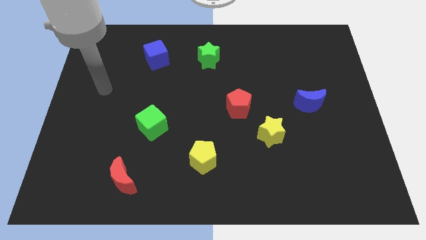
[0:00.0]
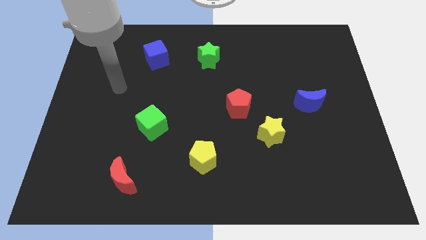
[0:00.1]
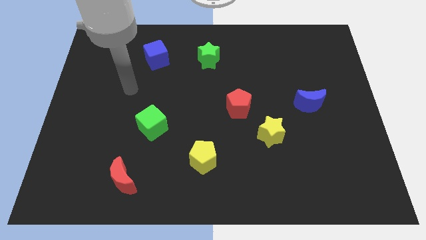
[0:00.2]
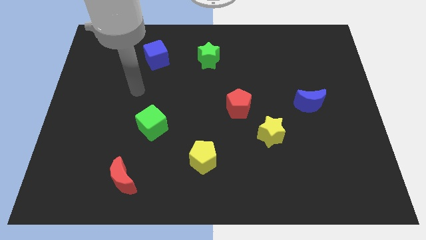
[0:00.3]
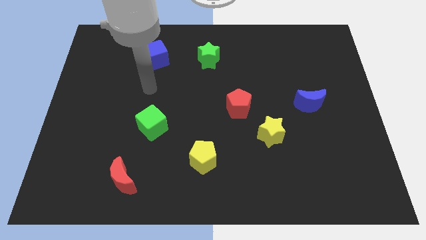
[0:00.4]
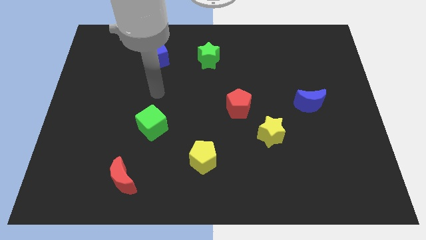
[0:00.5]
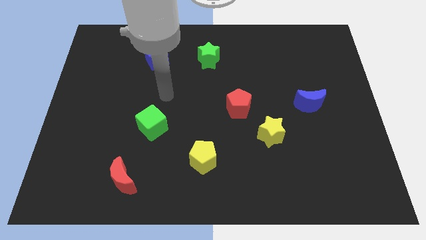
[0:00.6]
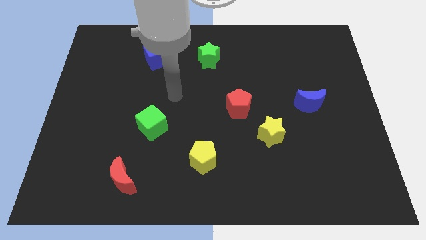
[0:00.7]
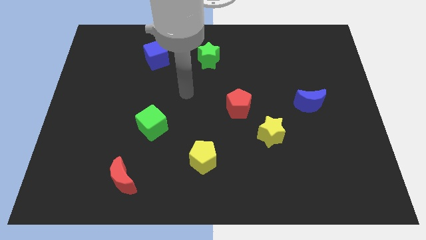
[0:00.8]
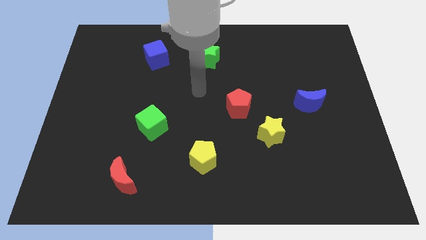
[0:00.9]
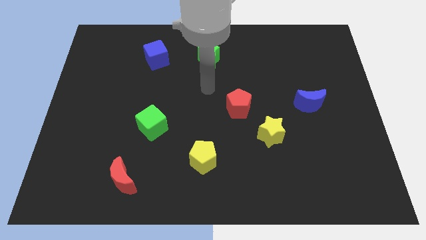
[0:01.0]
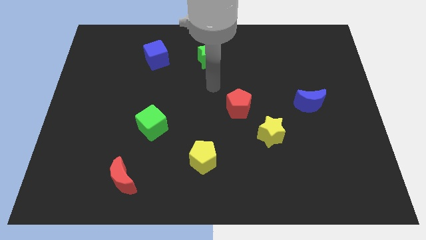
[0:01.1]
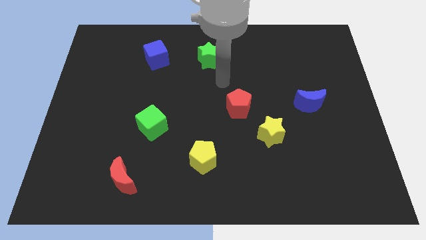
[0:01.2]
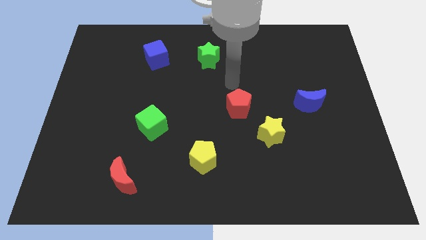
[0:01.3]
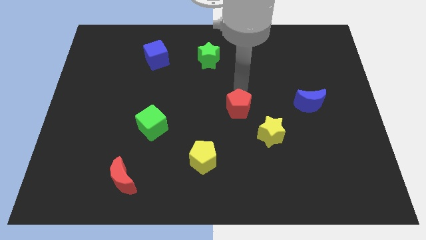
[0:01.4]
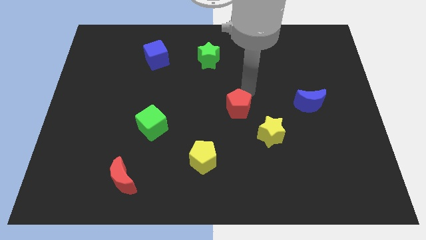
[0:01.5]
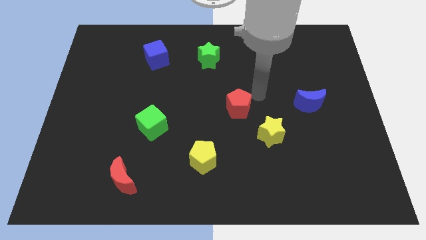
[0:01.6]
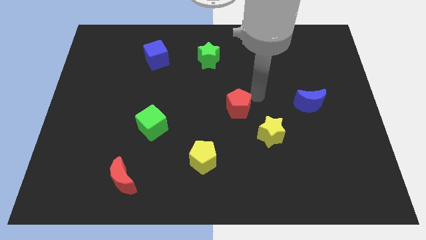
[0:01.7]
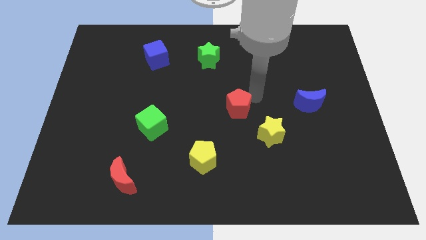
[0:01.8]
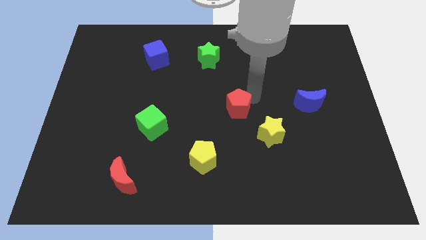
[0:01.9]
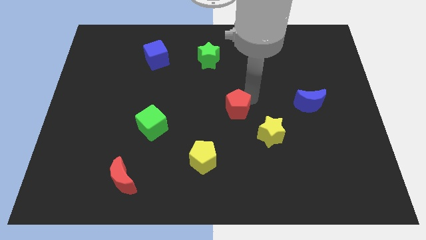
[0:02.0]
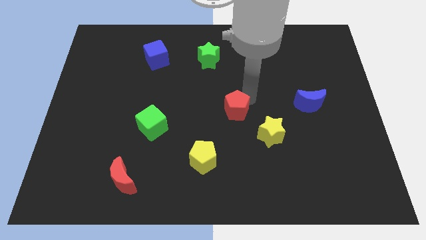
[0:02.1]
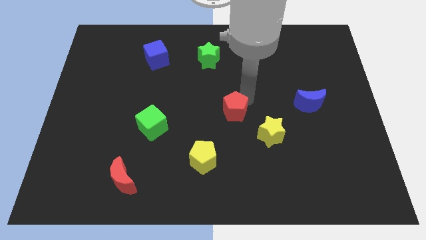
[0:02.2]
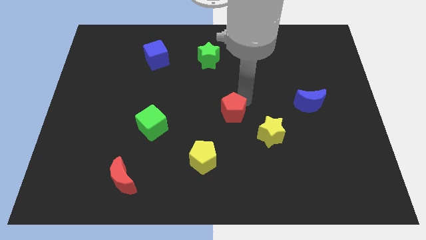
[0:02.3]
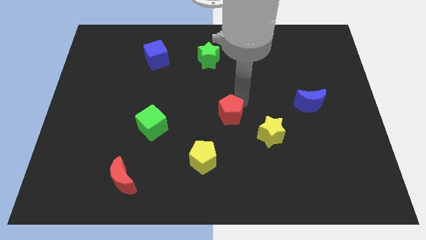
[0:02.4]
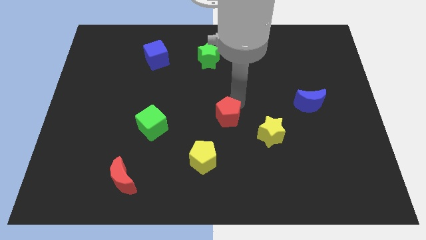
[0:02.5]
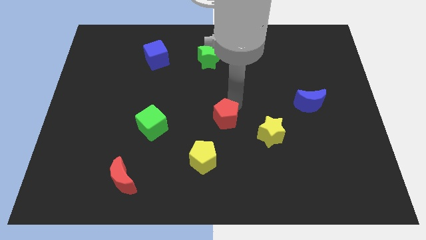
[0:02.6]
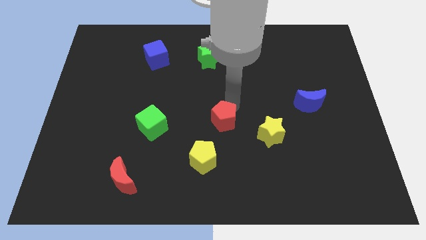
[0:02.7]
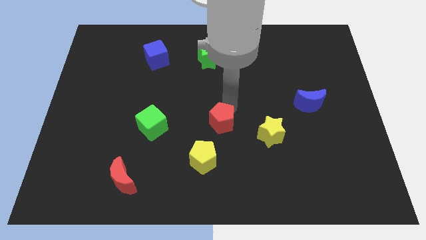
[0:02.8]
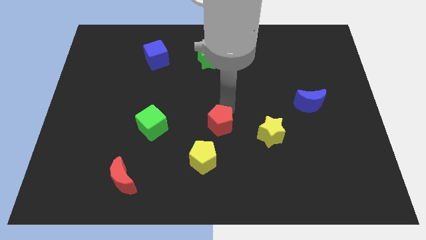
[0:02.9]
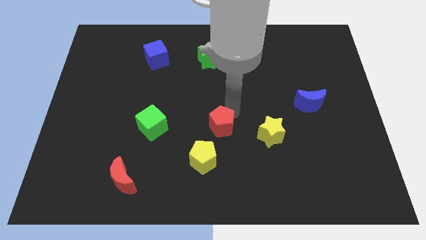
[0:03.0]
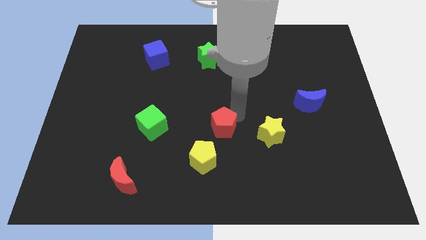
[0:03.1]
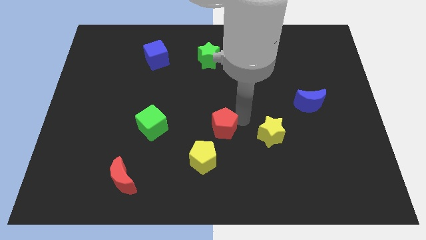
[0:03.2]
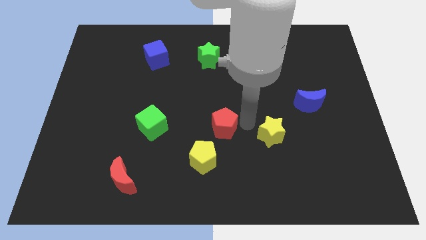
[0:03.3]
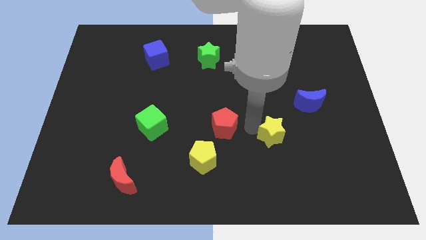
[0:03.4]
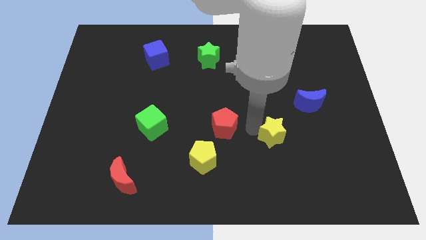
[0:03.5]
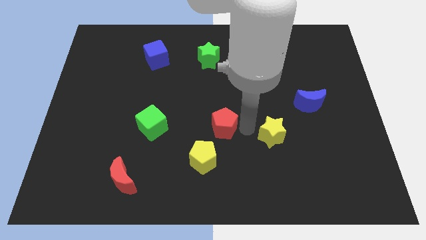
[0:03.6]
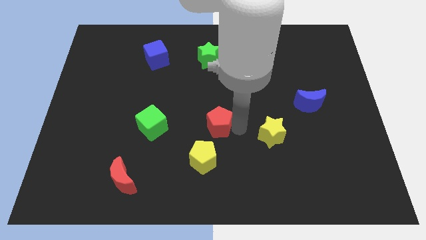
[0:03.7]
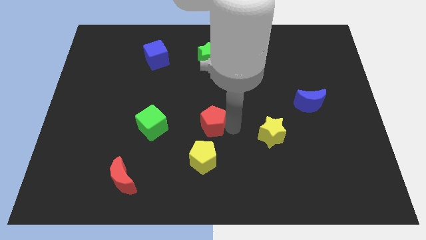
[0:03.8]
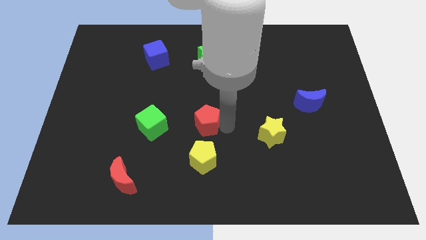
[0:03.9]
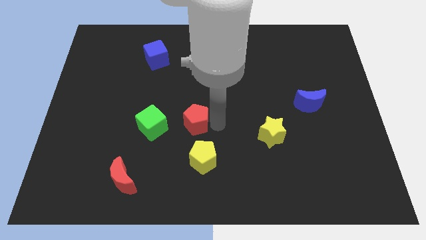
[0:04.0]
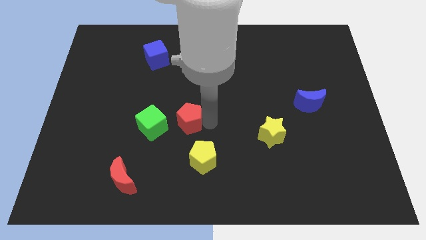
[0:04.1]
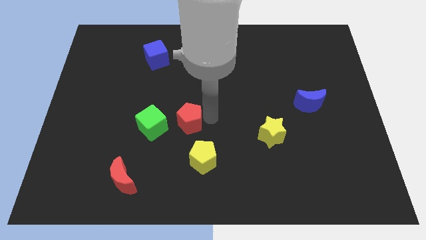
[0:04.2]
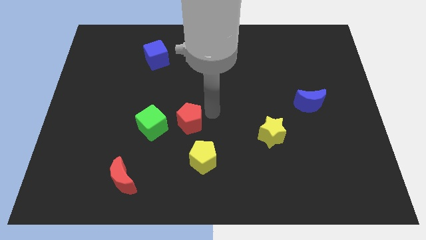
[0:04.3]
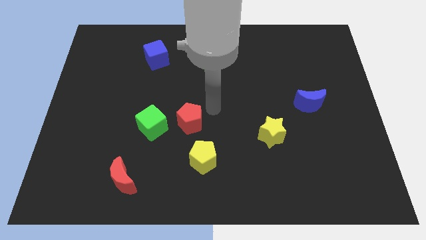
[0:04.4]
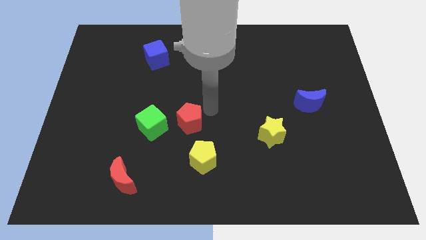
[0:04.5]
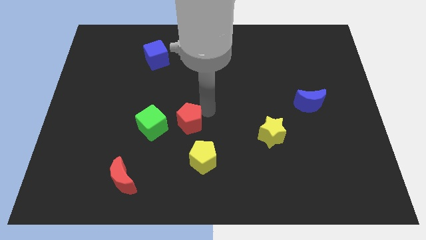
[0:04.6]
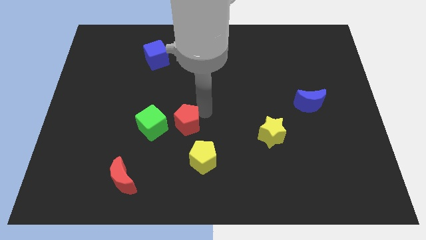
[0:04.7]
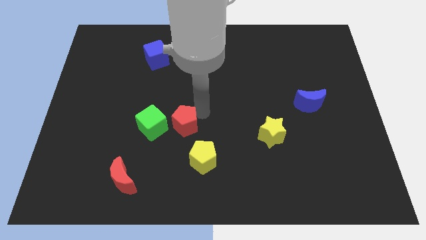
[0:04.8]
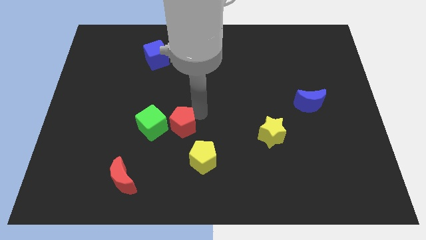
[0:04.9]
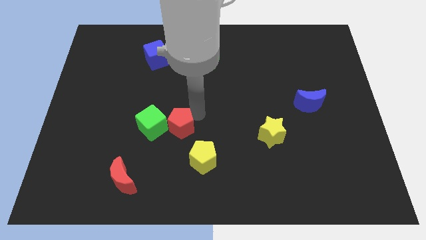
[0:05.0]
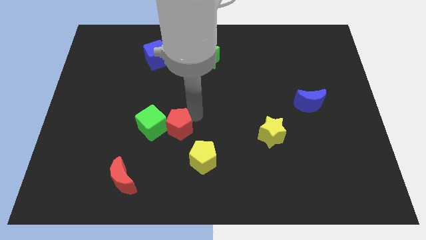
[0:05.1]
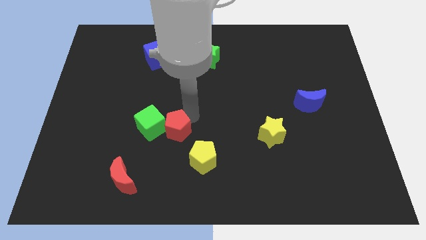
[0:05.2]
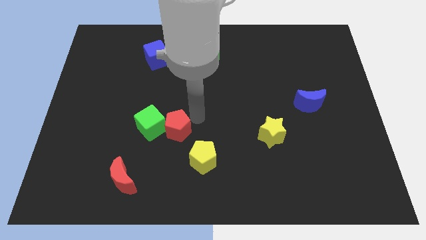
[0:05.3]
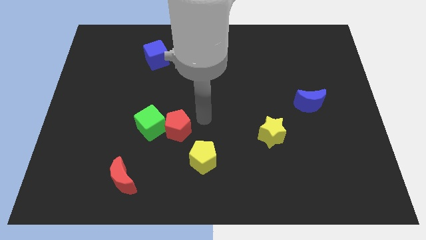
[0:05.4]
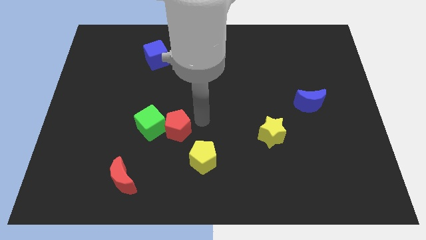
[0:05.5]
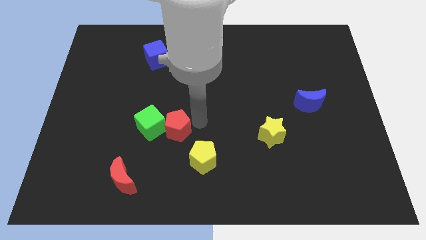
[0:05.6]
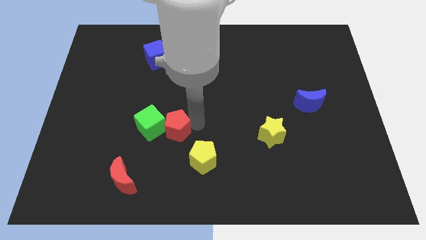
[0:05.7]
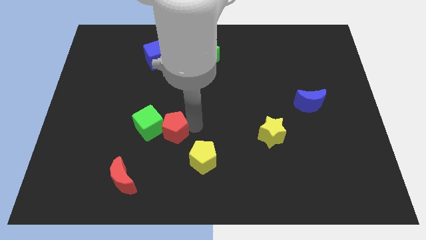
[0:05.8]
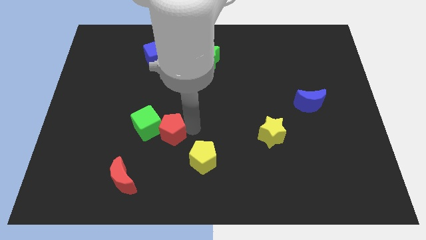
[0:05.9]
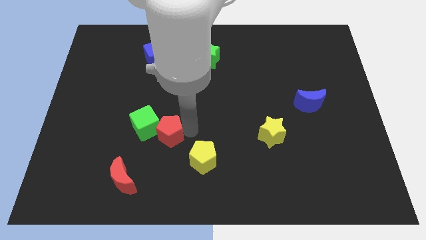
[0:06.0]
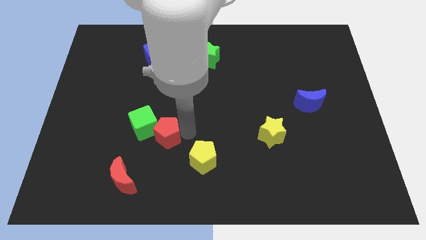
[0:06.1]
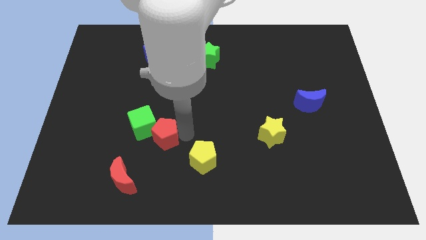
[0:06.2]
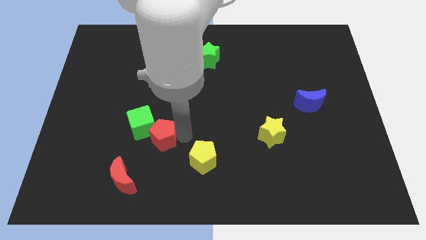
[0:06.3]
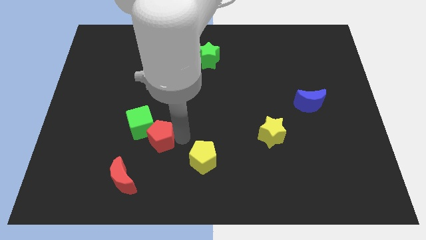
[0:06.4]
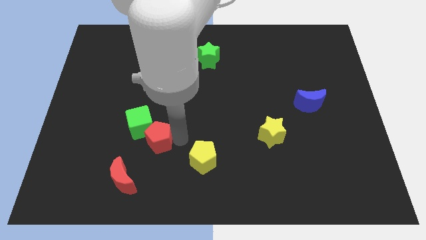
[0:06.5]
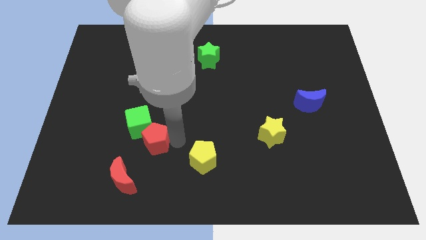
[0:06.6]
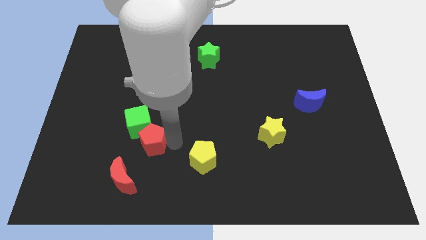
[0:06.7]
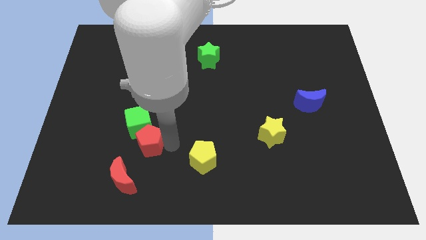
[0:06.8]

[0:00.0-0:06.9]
put the red pentagon to the top of the red moon
